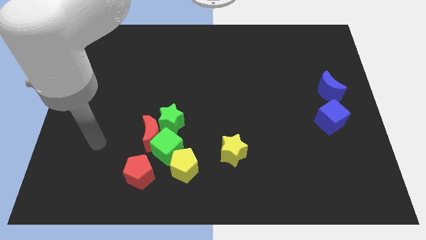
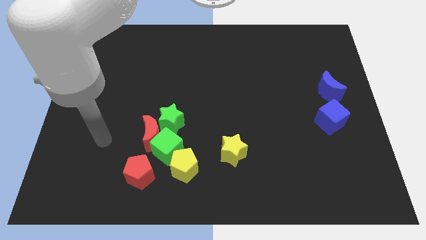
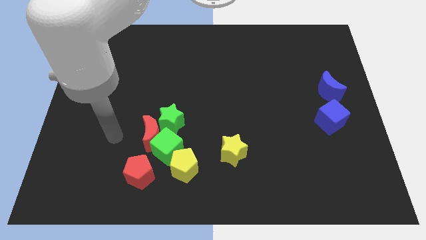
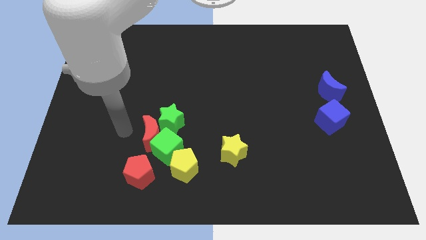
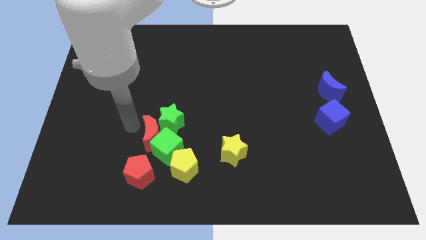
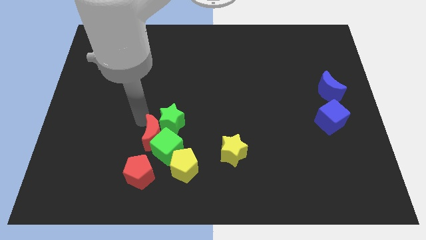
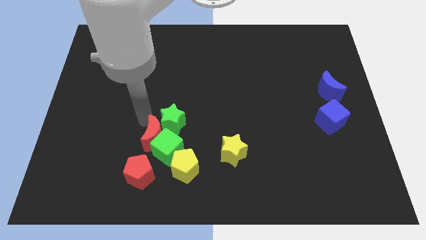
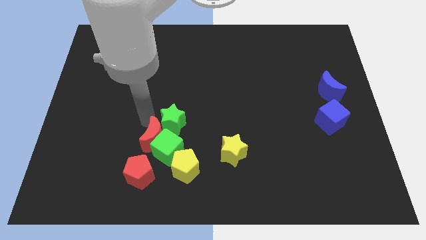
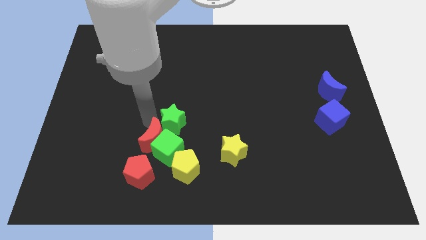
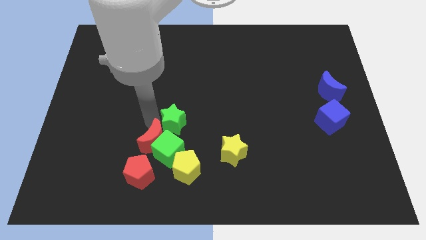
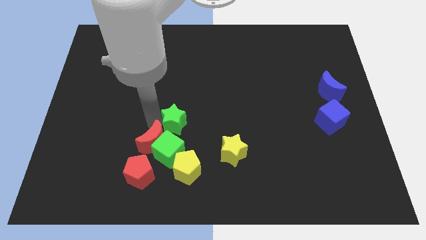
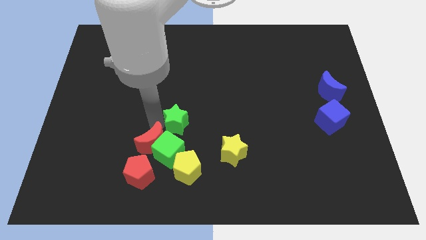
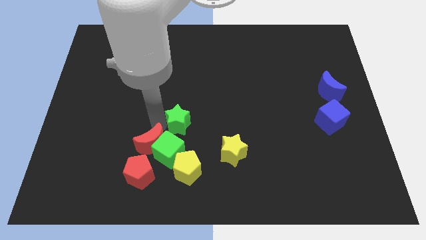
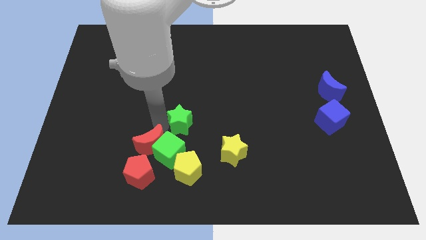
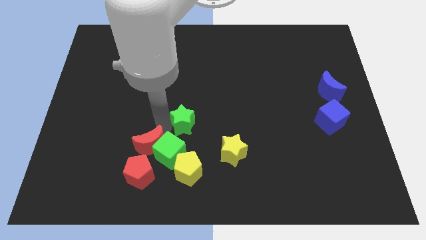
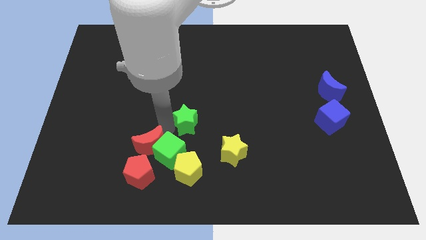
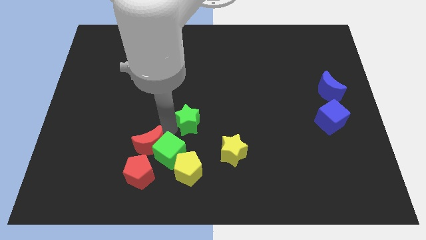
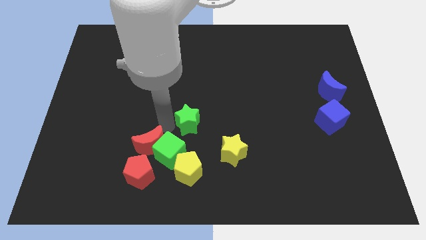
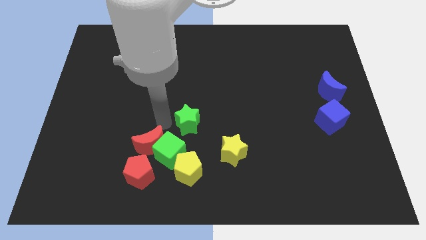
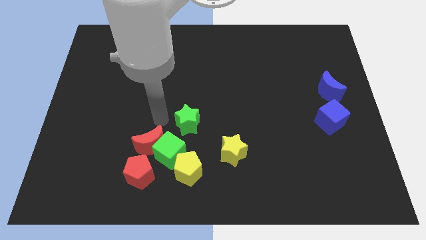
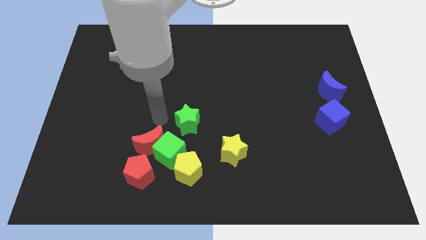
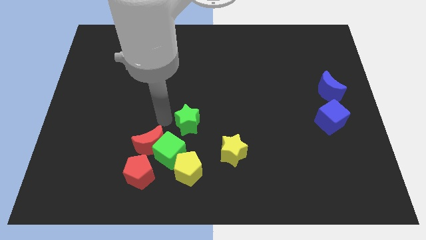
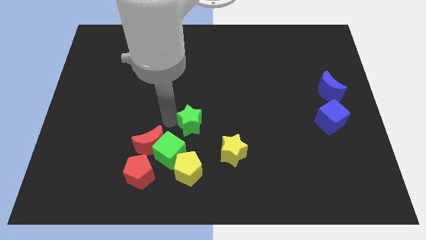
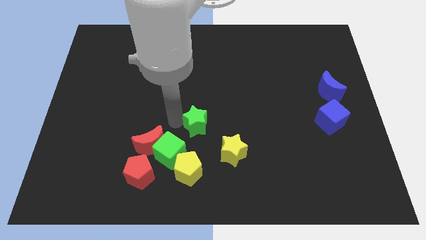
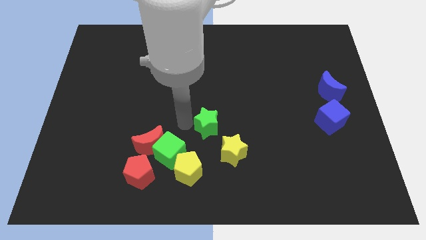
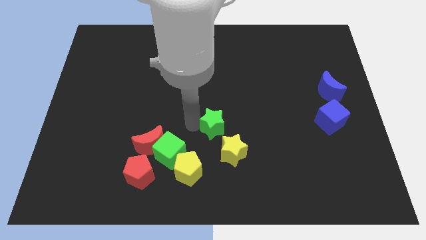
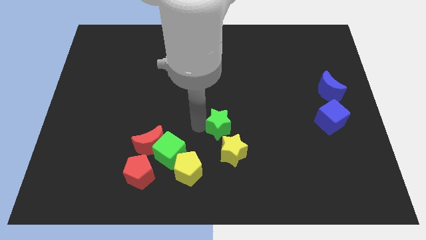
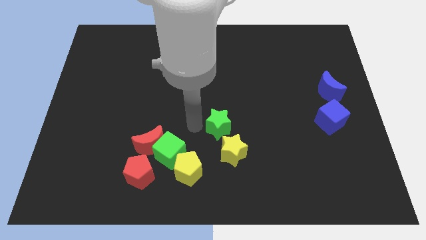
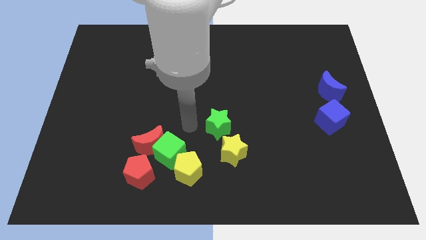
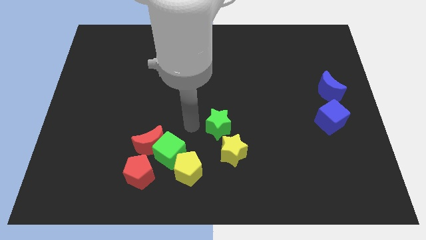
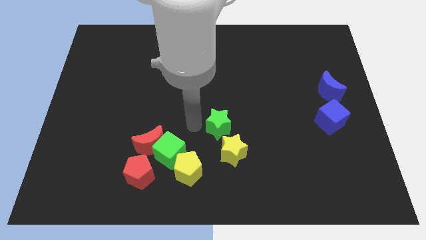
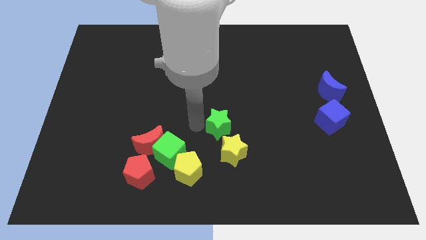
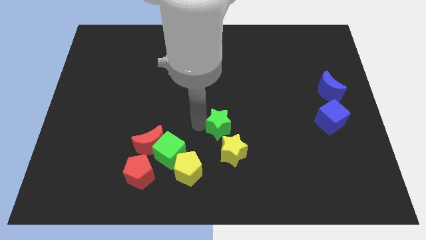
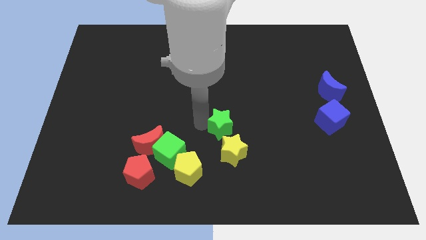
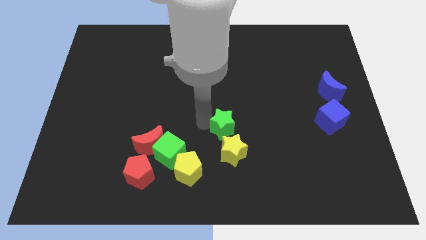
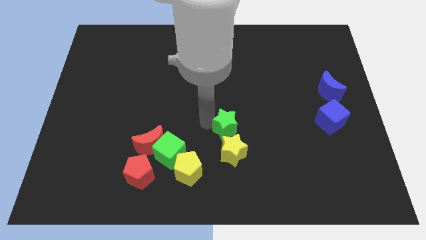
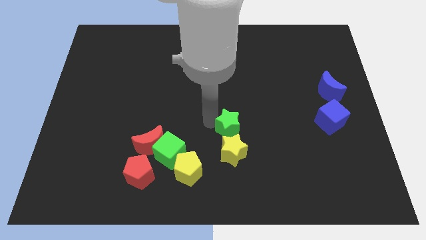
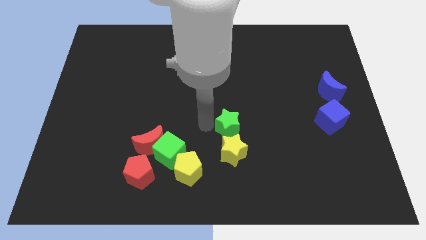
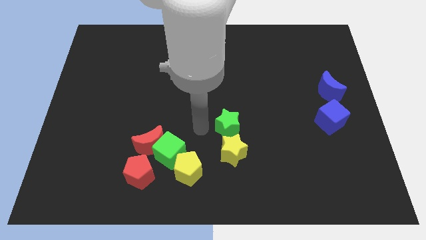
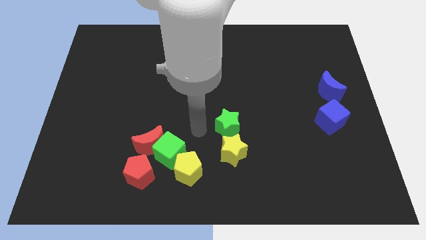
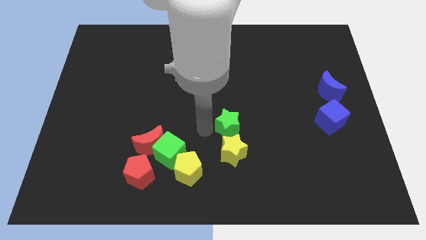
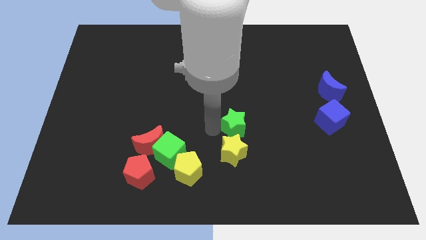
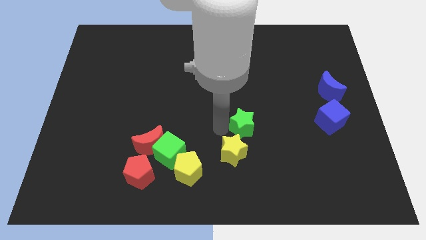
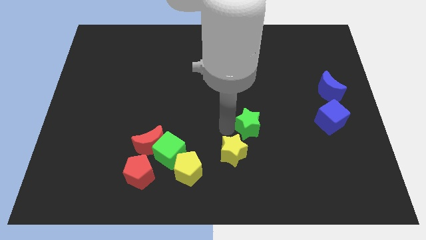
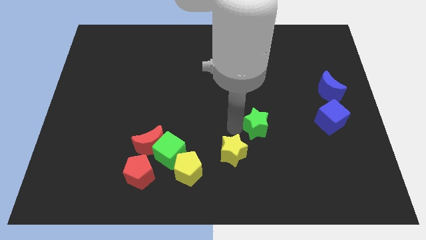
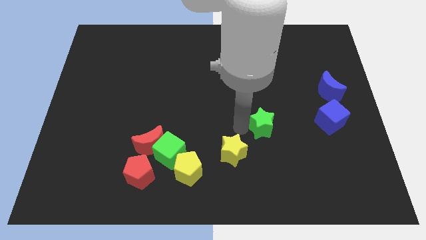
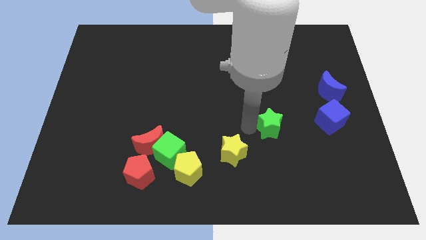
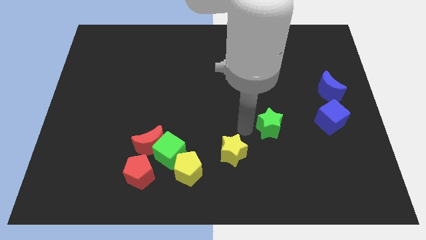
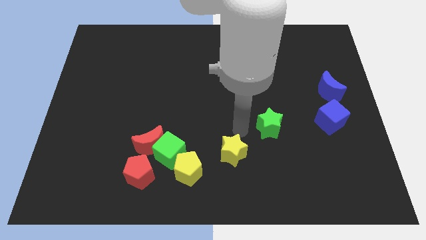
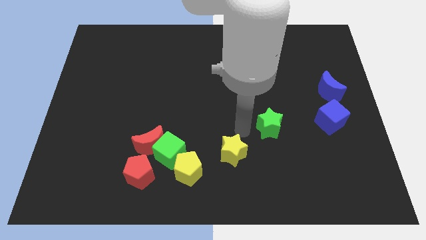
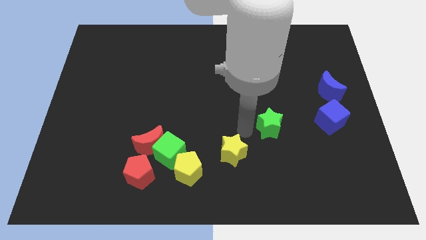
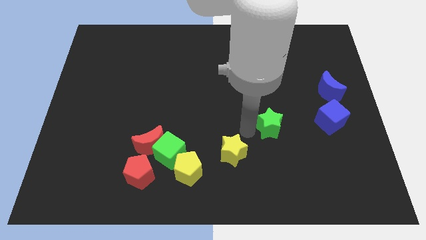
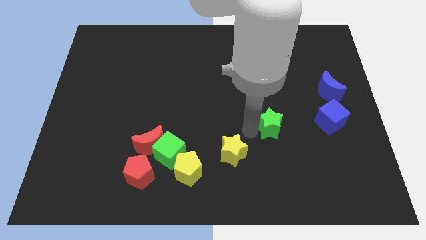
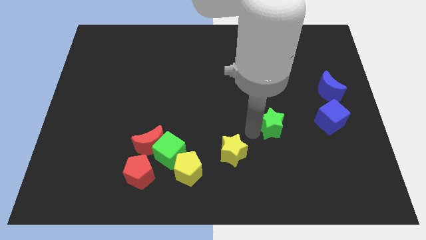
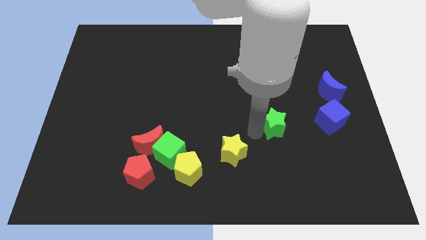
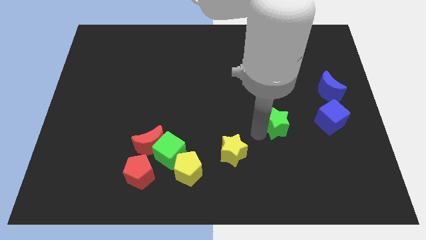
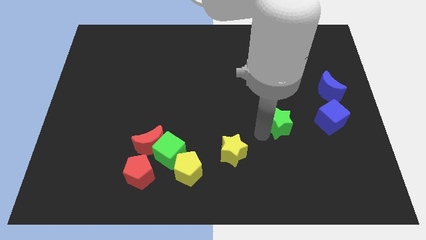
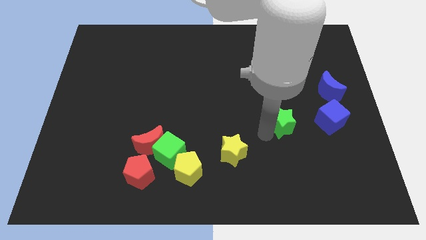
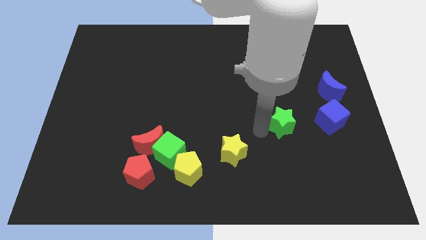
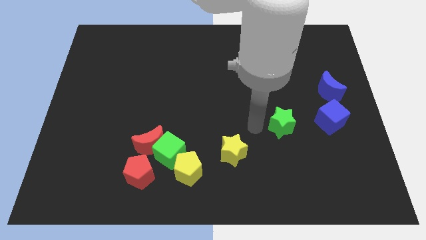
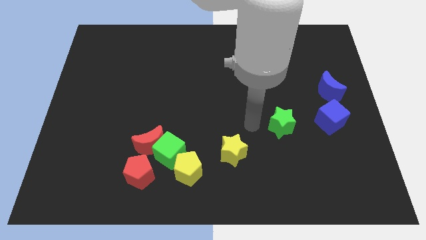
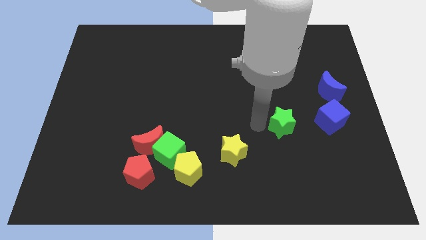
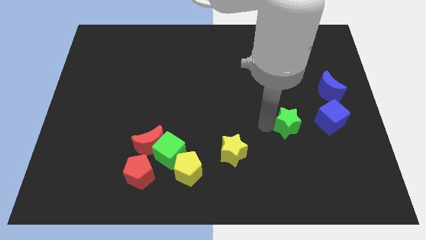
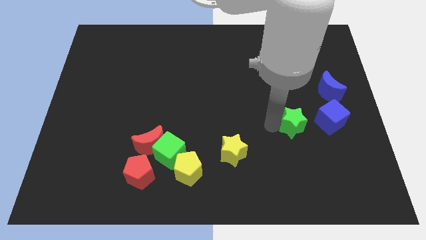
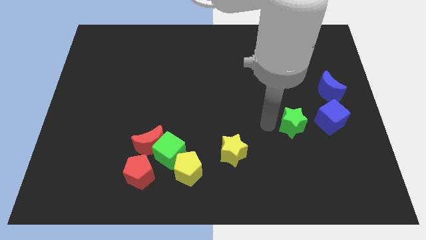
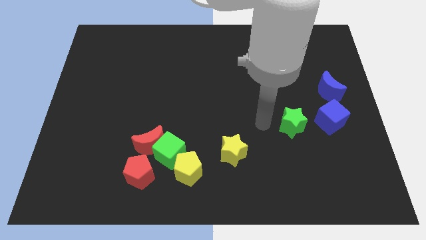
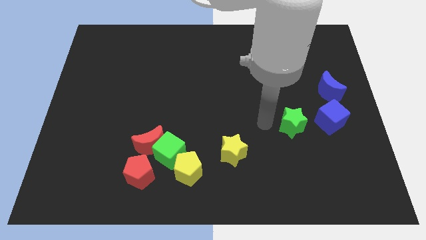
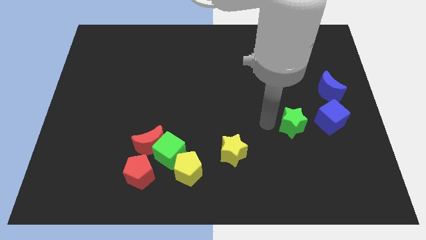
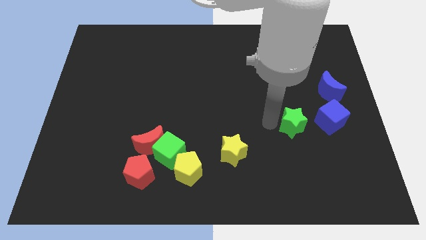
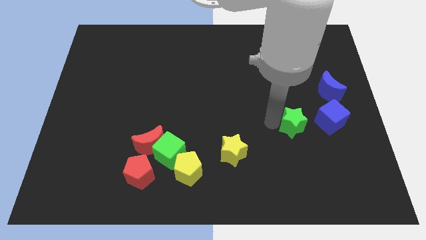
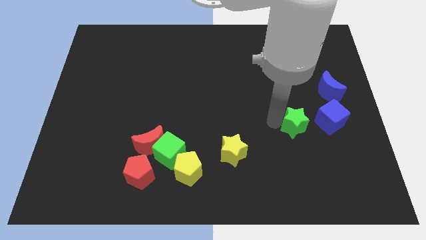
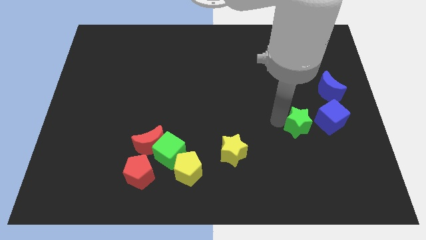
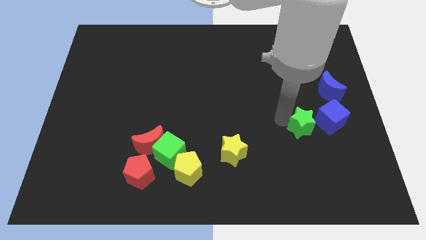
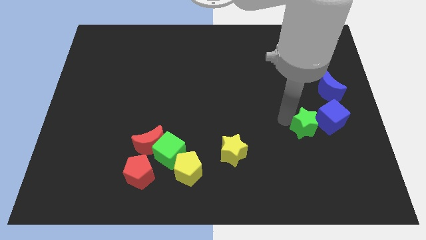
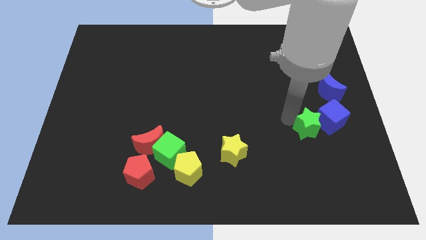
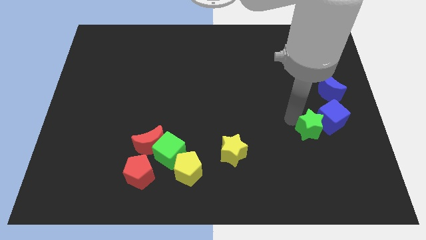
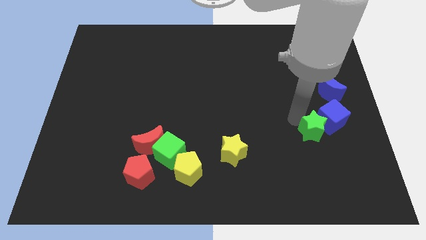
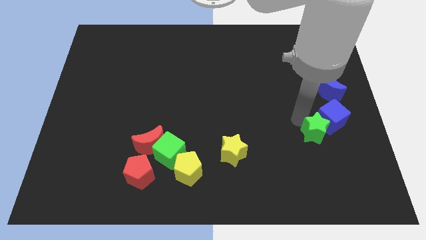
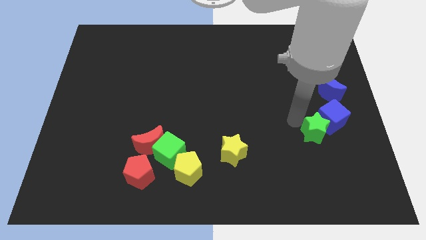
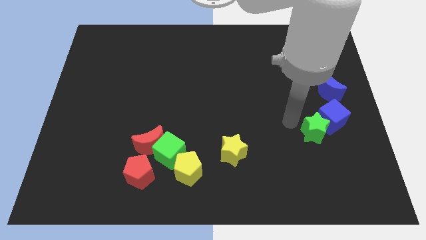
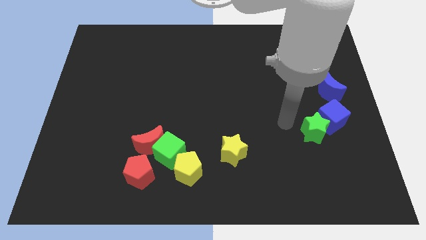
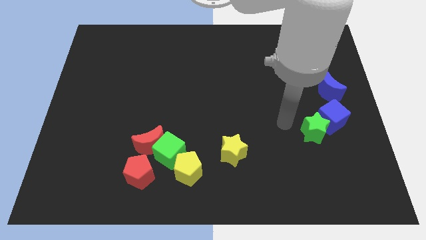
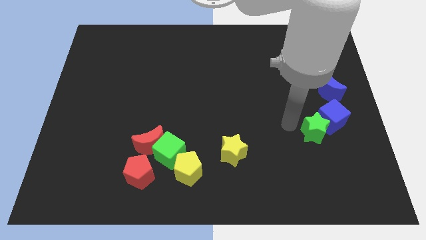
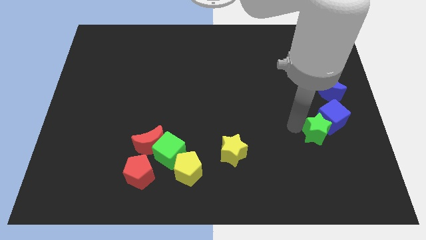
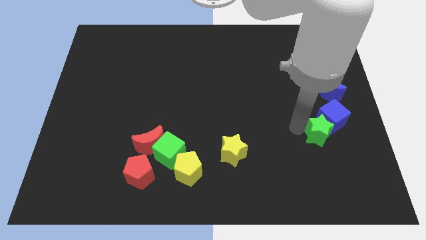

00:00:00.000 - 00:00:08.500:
move the green star to the bottom of the blue moon
